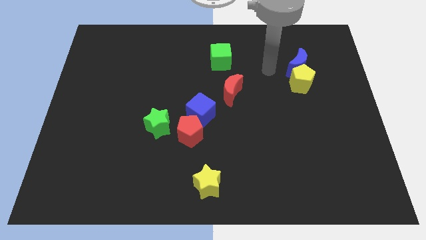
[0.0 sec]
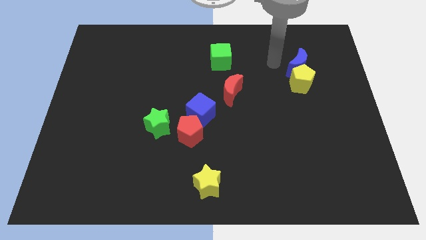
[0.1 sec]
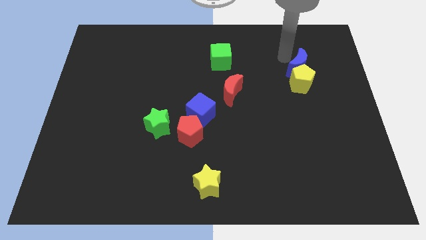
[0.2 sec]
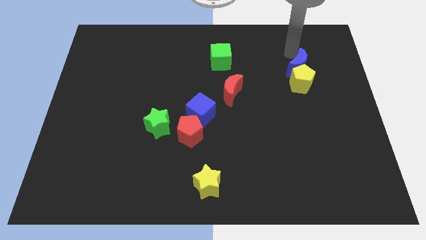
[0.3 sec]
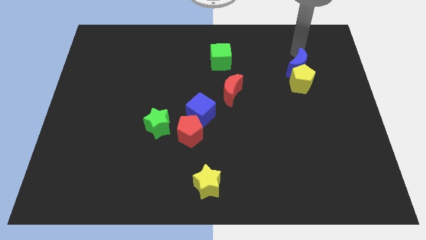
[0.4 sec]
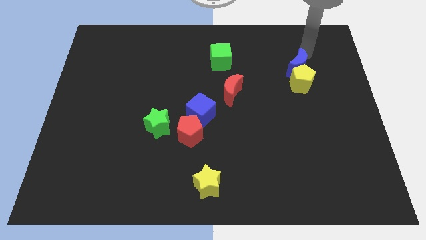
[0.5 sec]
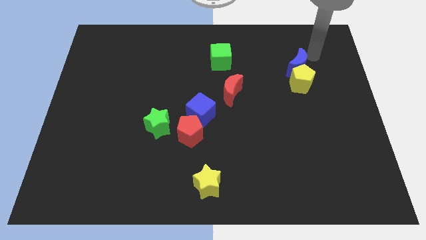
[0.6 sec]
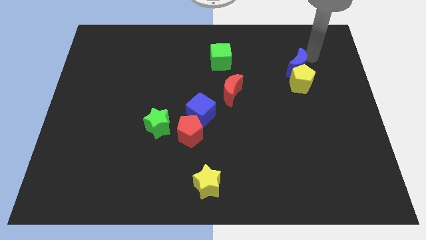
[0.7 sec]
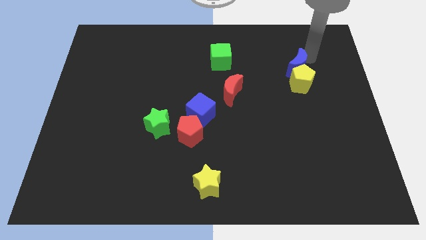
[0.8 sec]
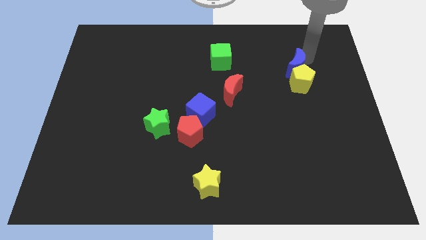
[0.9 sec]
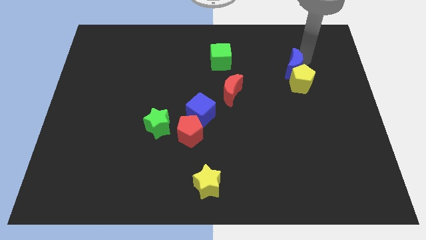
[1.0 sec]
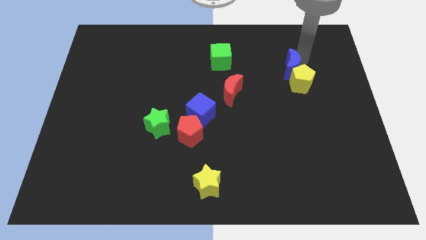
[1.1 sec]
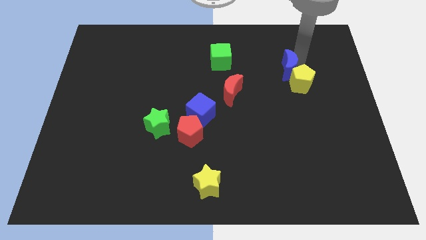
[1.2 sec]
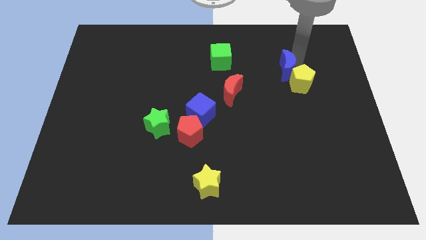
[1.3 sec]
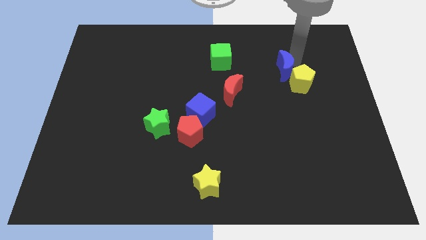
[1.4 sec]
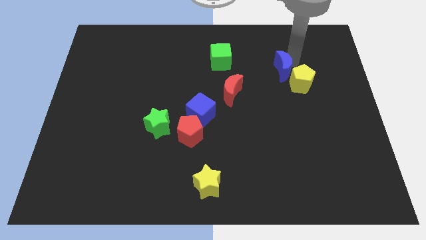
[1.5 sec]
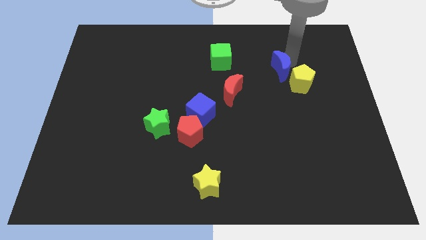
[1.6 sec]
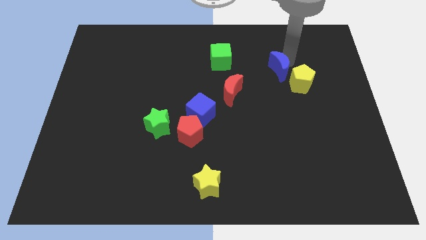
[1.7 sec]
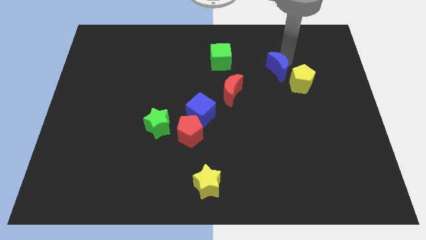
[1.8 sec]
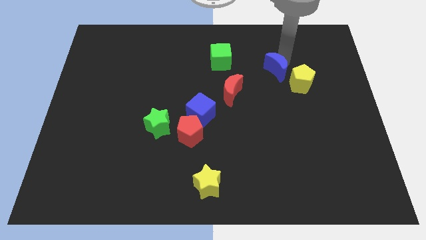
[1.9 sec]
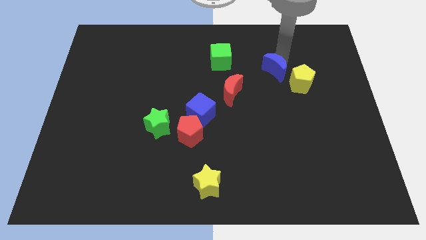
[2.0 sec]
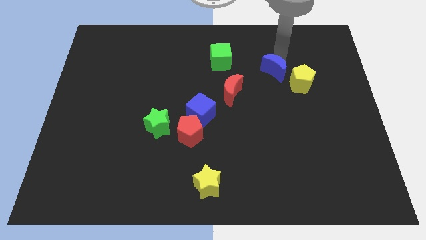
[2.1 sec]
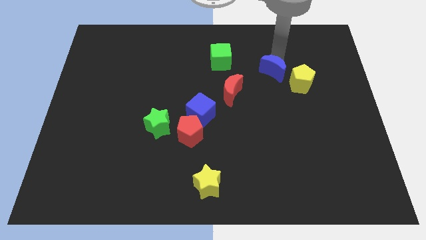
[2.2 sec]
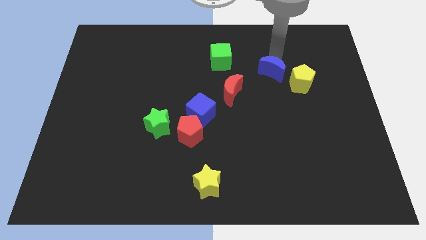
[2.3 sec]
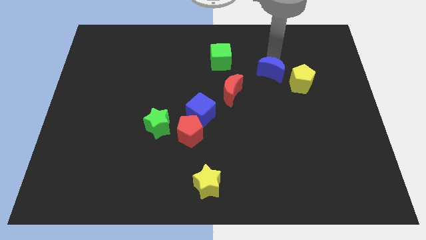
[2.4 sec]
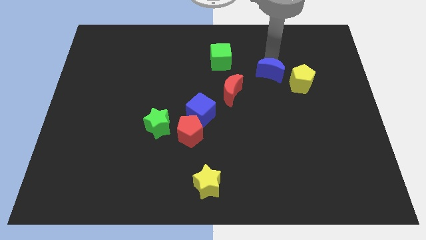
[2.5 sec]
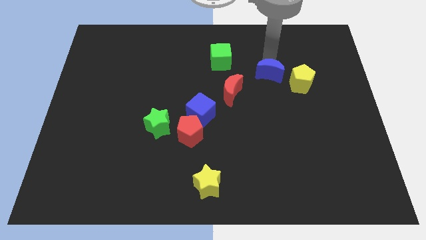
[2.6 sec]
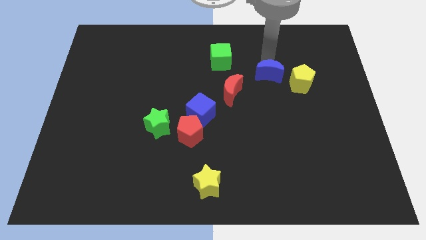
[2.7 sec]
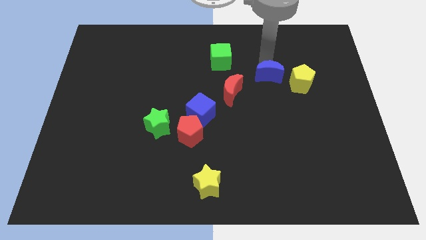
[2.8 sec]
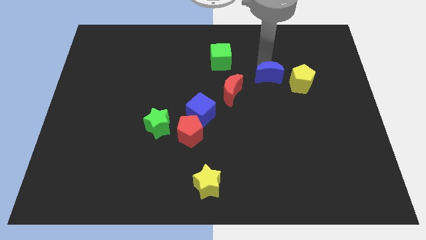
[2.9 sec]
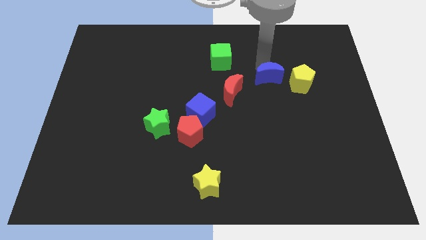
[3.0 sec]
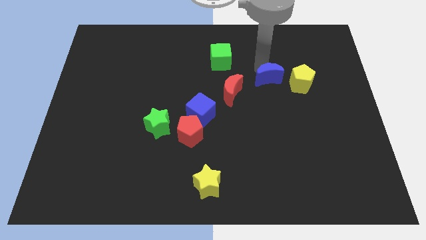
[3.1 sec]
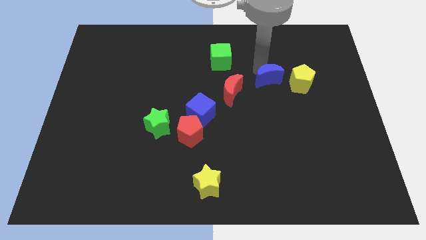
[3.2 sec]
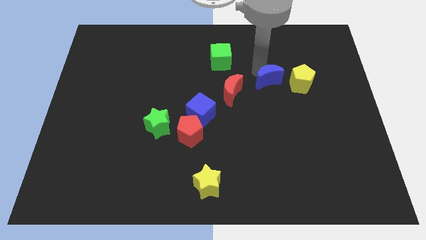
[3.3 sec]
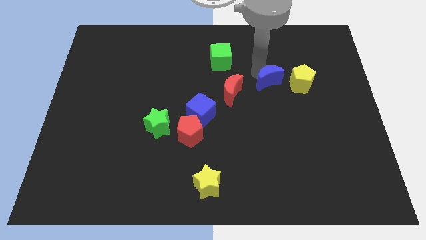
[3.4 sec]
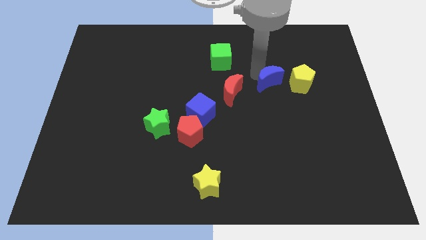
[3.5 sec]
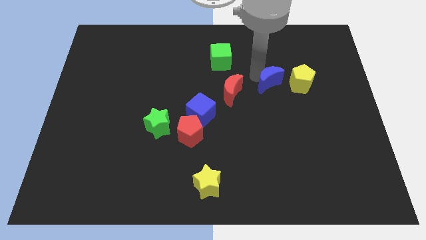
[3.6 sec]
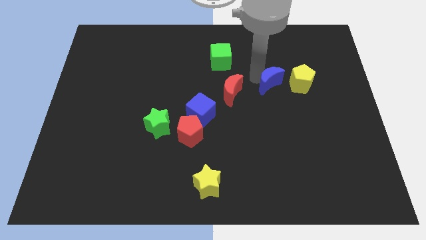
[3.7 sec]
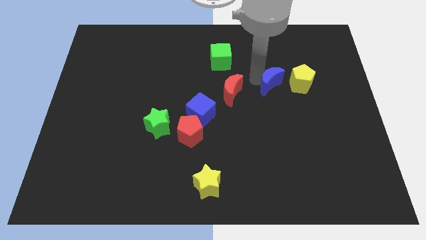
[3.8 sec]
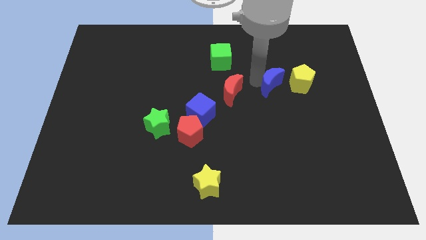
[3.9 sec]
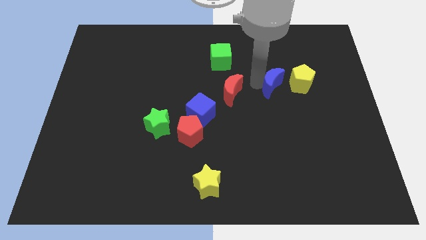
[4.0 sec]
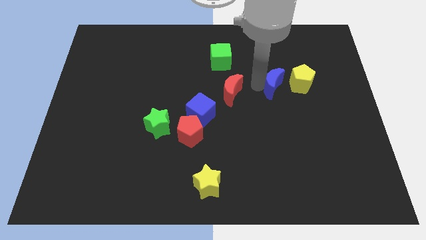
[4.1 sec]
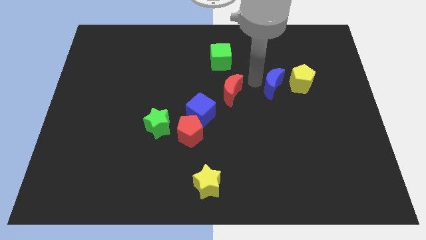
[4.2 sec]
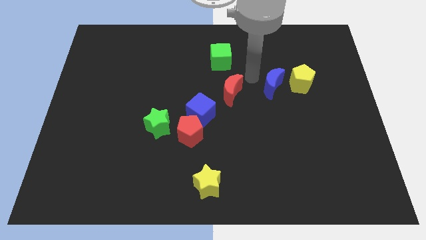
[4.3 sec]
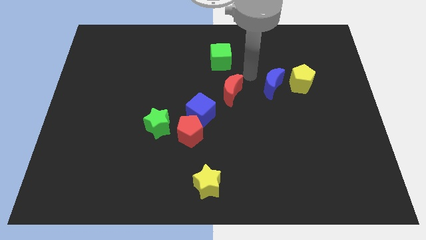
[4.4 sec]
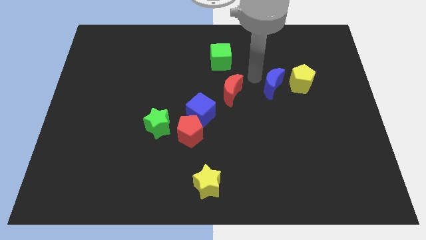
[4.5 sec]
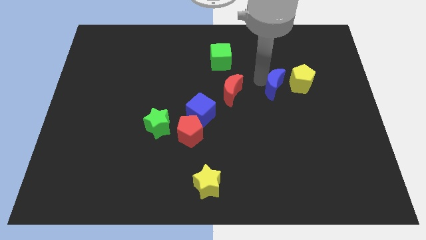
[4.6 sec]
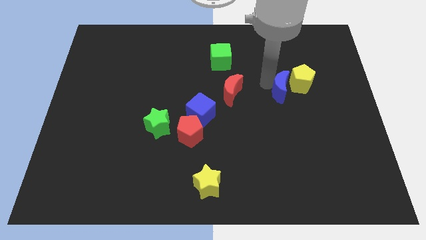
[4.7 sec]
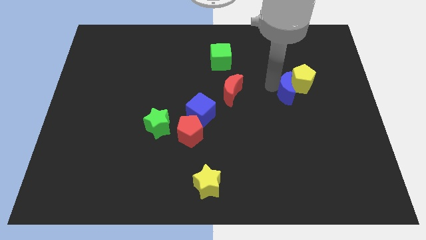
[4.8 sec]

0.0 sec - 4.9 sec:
push the blue moon a bit down

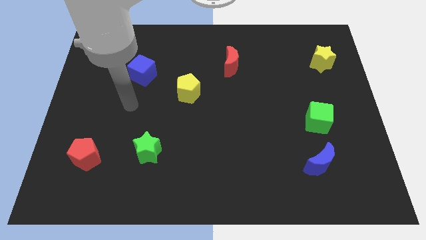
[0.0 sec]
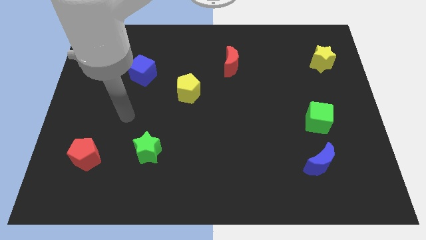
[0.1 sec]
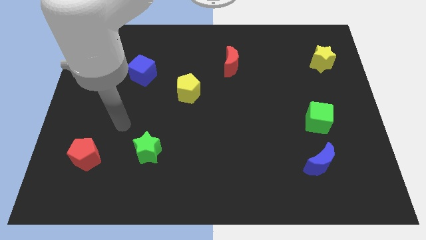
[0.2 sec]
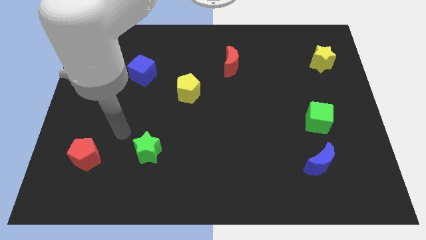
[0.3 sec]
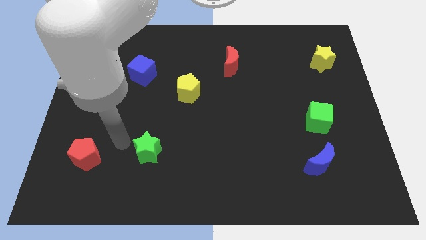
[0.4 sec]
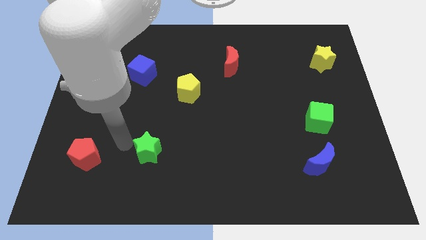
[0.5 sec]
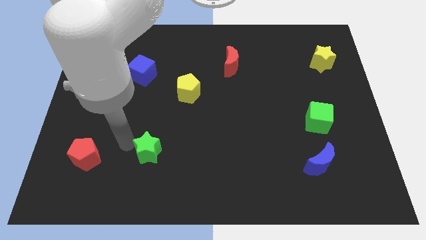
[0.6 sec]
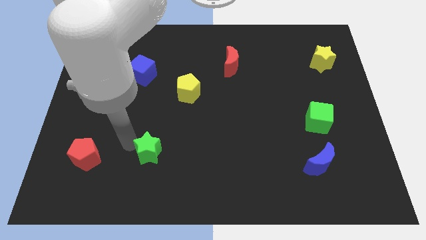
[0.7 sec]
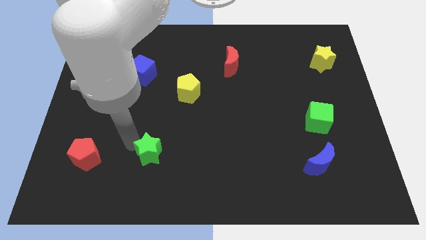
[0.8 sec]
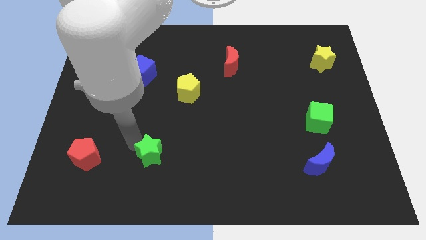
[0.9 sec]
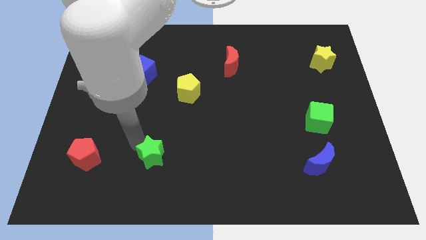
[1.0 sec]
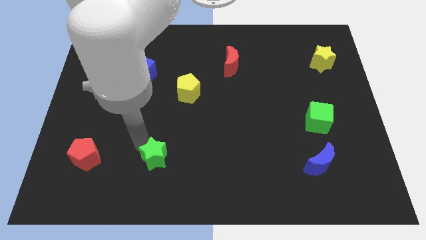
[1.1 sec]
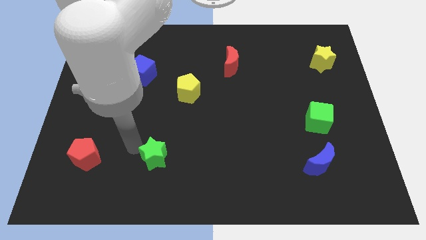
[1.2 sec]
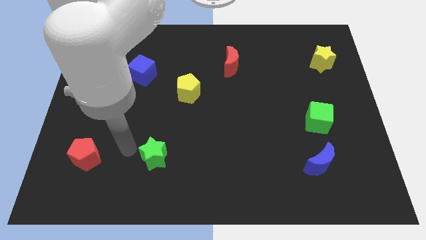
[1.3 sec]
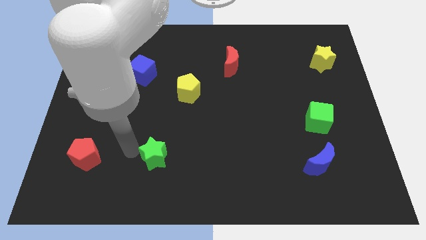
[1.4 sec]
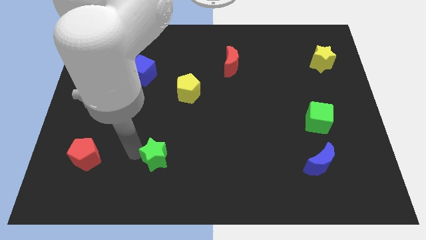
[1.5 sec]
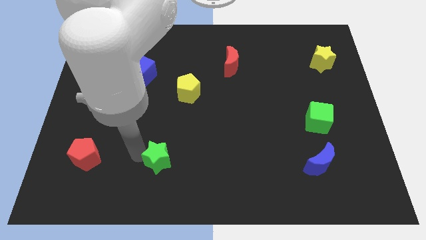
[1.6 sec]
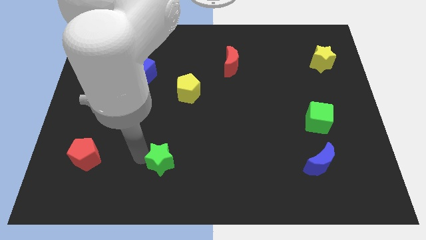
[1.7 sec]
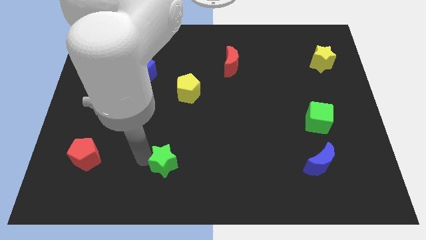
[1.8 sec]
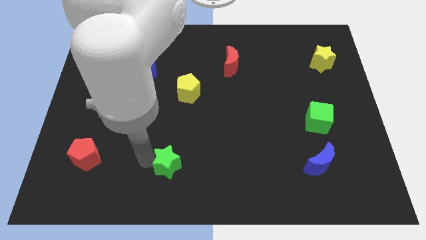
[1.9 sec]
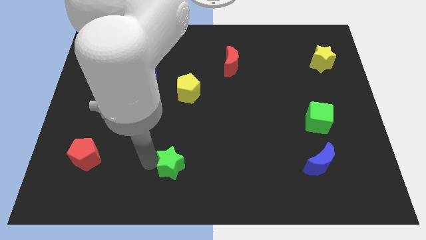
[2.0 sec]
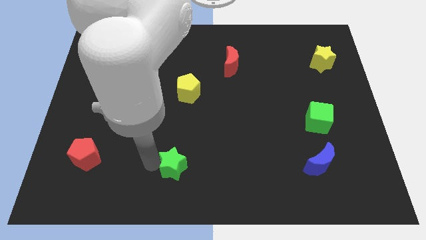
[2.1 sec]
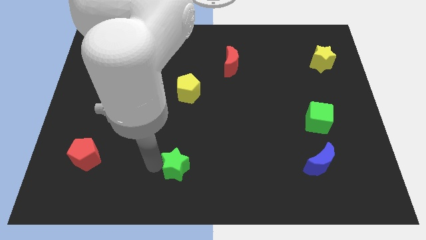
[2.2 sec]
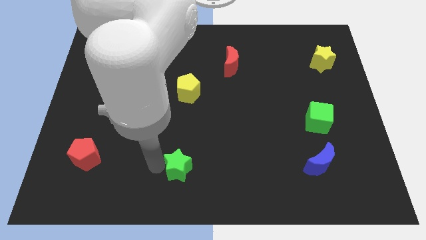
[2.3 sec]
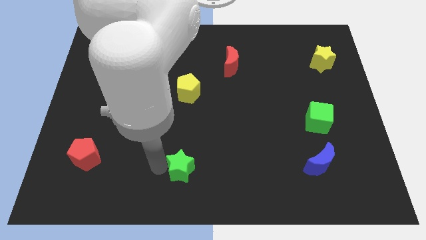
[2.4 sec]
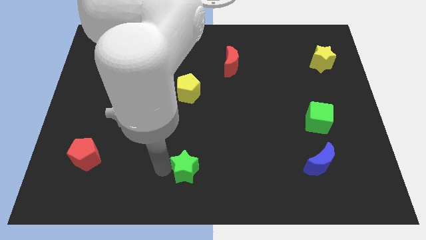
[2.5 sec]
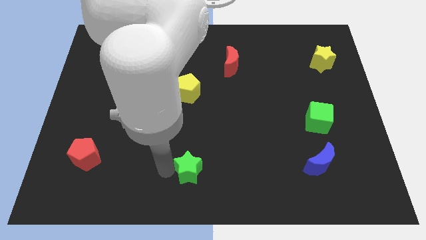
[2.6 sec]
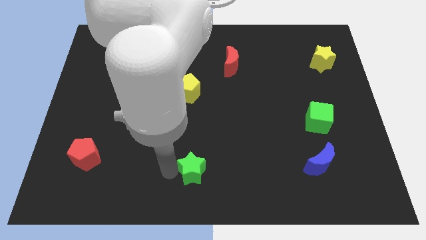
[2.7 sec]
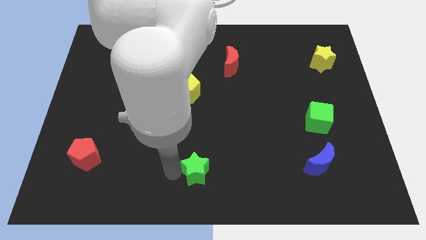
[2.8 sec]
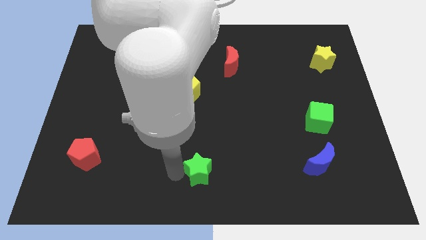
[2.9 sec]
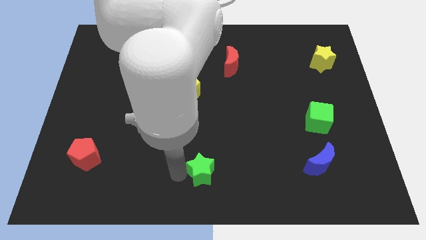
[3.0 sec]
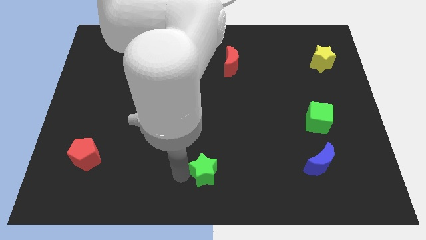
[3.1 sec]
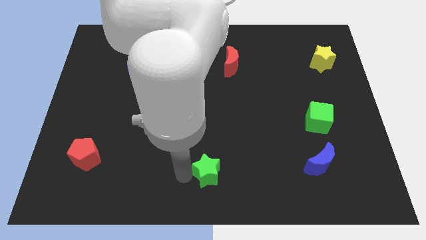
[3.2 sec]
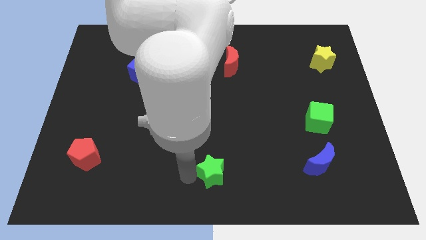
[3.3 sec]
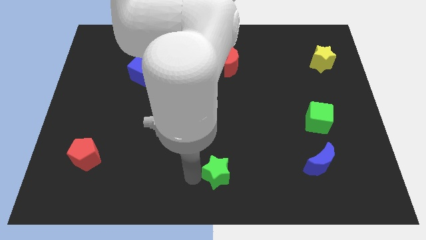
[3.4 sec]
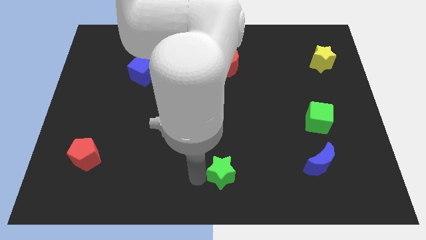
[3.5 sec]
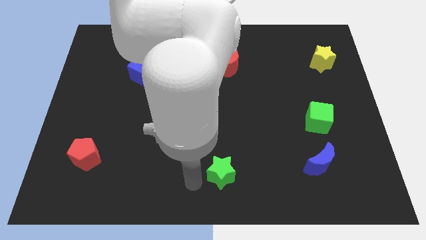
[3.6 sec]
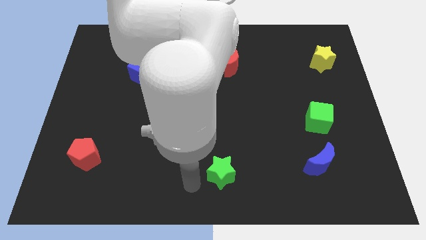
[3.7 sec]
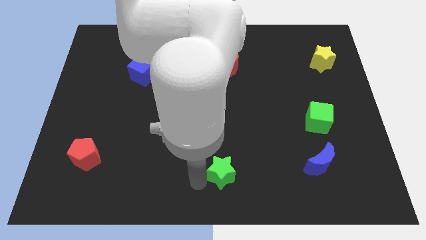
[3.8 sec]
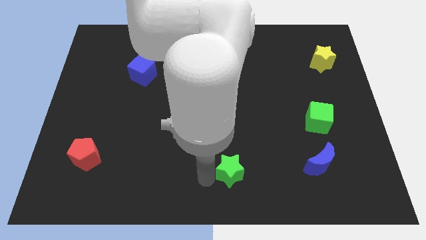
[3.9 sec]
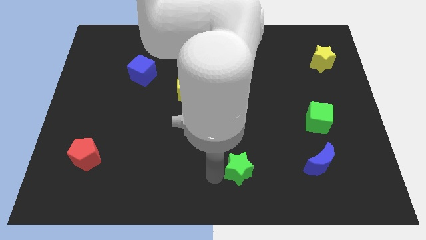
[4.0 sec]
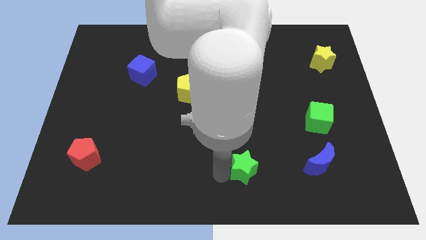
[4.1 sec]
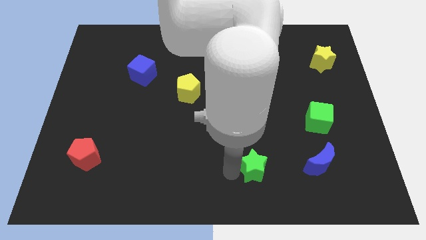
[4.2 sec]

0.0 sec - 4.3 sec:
push the green star right
